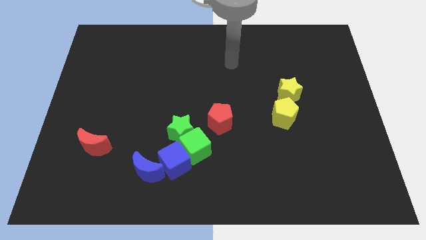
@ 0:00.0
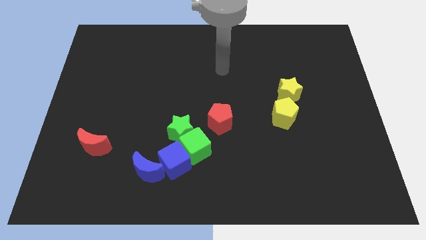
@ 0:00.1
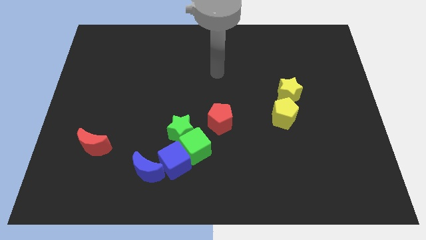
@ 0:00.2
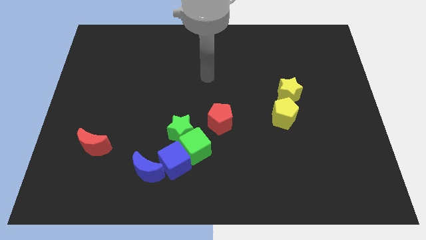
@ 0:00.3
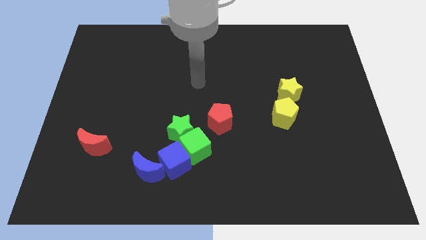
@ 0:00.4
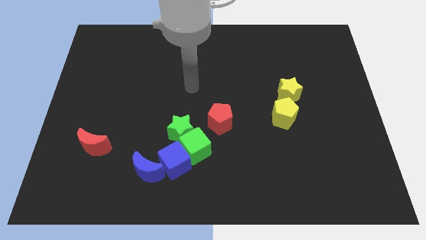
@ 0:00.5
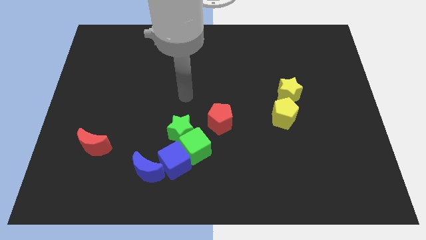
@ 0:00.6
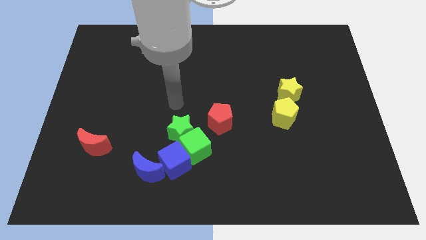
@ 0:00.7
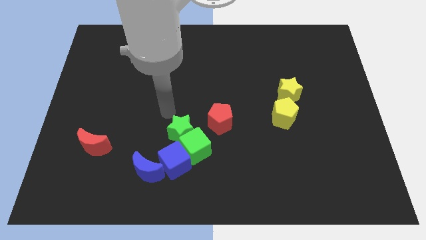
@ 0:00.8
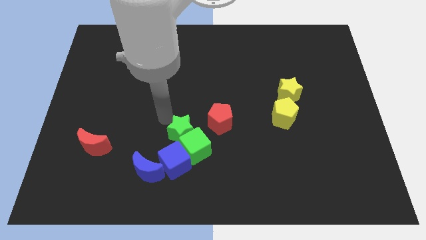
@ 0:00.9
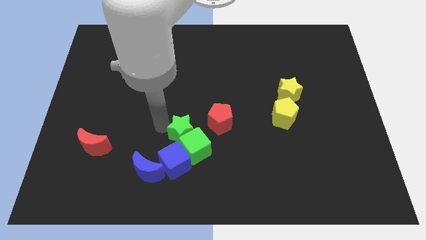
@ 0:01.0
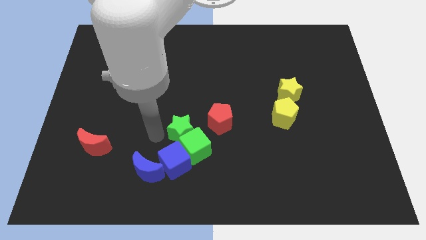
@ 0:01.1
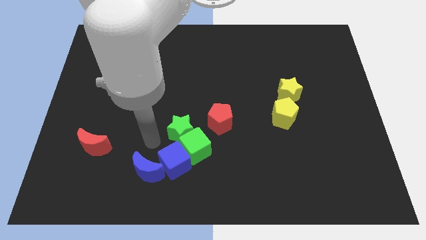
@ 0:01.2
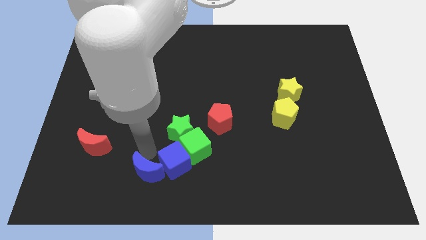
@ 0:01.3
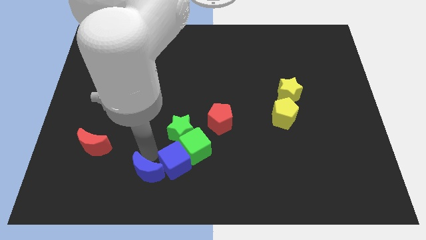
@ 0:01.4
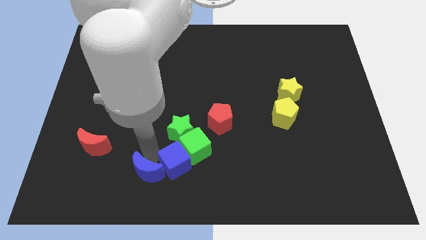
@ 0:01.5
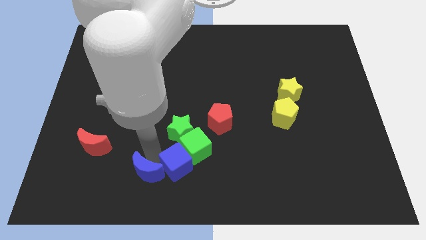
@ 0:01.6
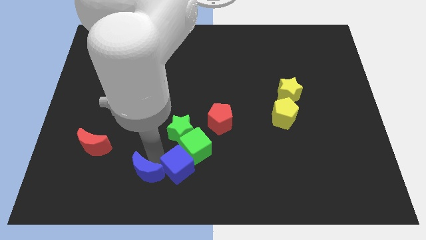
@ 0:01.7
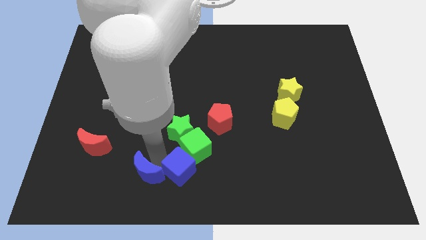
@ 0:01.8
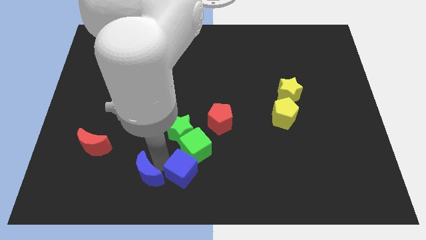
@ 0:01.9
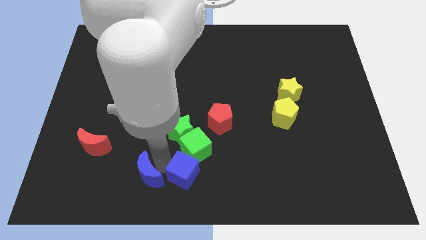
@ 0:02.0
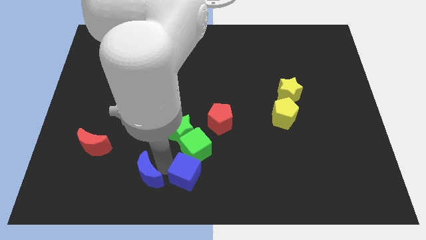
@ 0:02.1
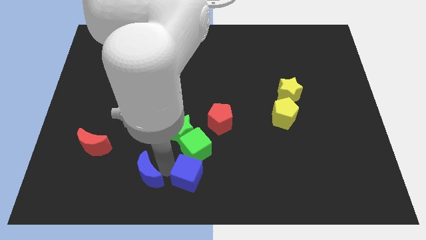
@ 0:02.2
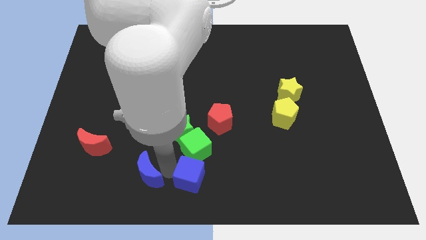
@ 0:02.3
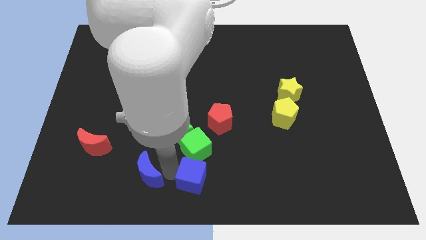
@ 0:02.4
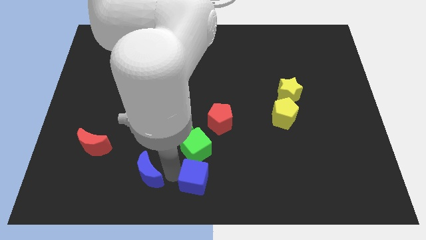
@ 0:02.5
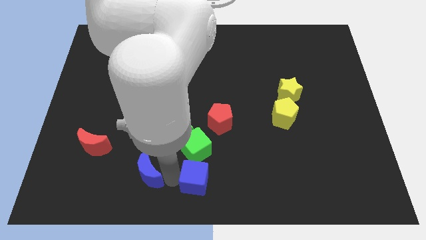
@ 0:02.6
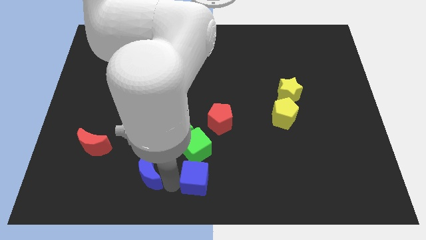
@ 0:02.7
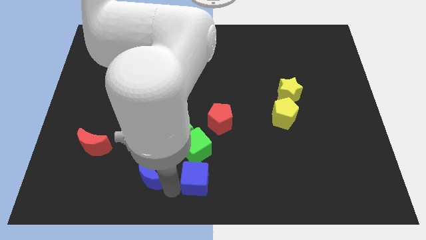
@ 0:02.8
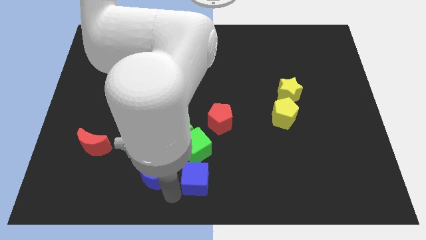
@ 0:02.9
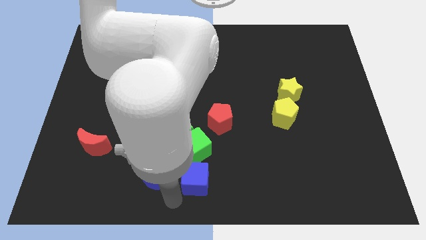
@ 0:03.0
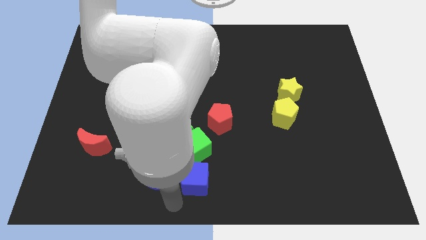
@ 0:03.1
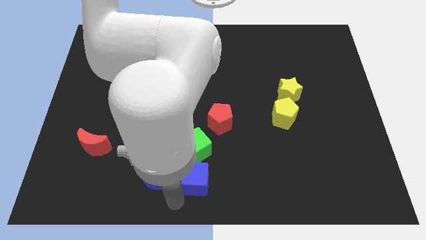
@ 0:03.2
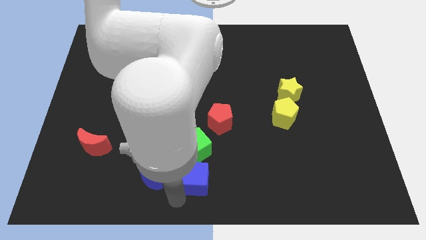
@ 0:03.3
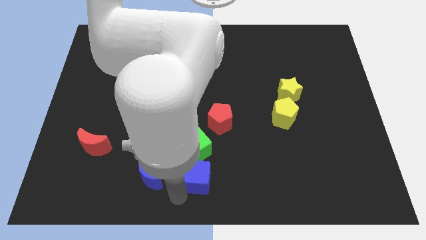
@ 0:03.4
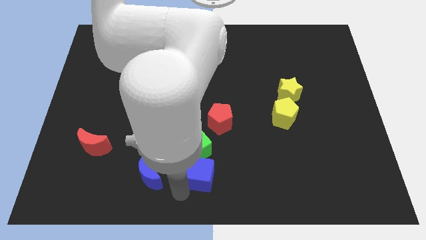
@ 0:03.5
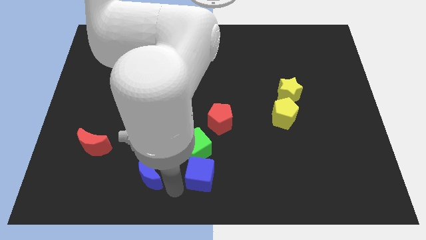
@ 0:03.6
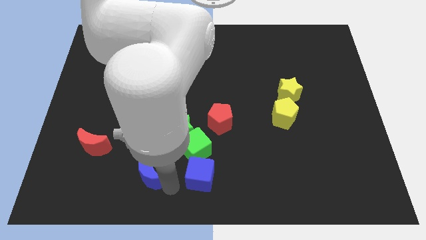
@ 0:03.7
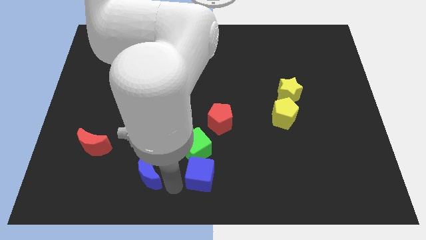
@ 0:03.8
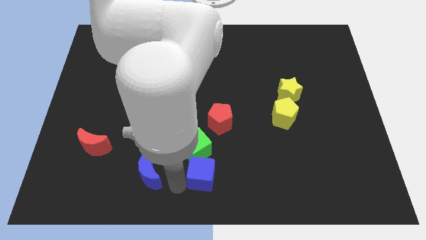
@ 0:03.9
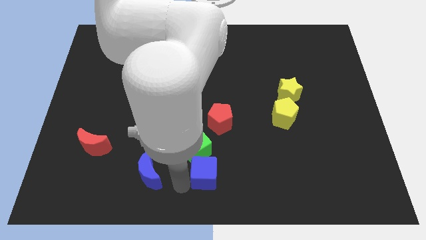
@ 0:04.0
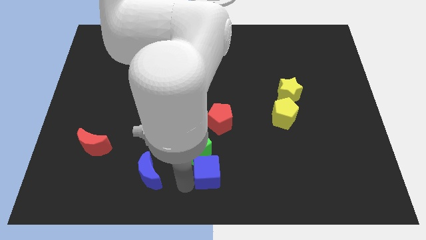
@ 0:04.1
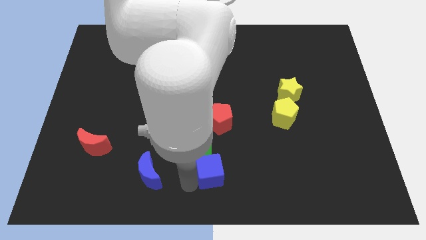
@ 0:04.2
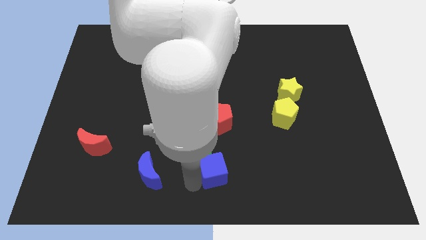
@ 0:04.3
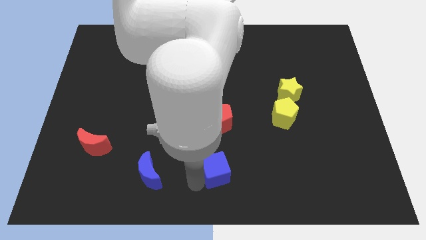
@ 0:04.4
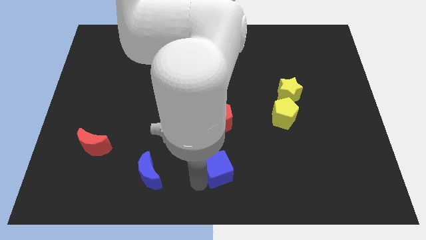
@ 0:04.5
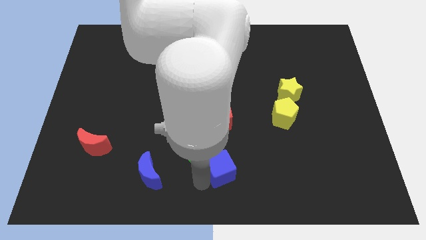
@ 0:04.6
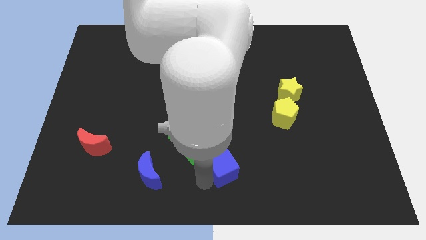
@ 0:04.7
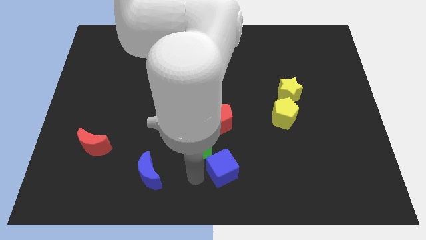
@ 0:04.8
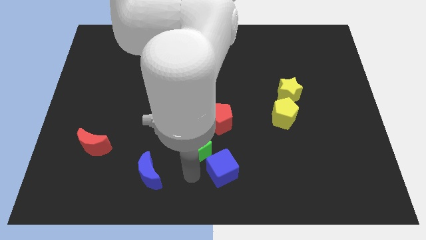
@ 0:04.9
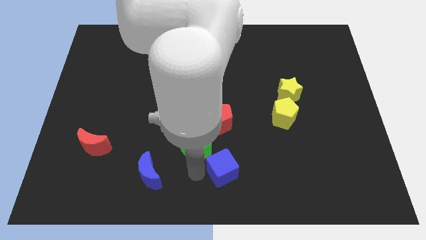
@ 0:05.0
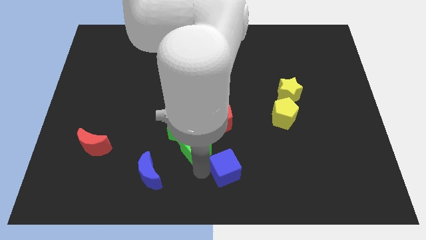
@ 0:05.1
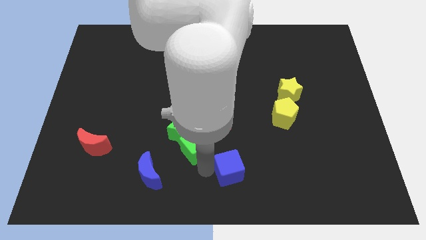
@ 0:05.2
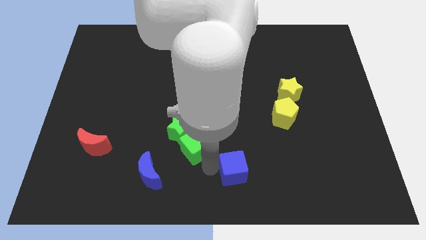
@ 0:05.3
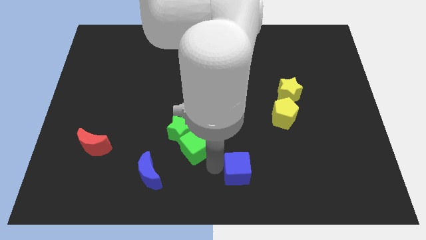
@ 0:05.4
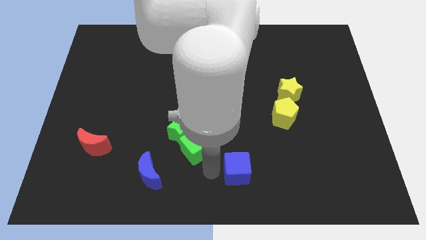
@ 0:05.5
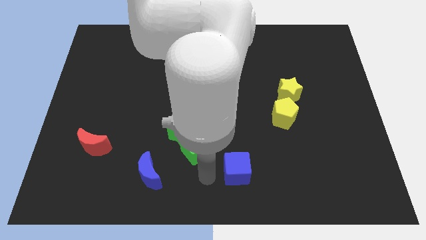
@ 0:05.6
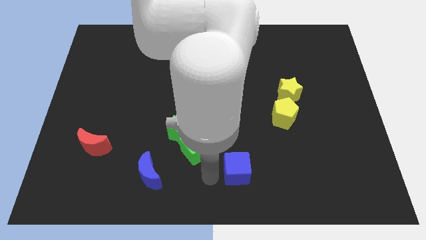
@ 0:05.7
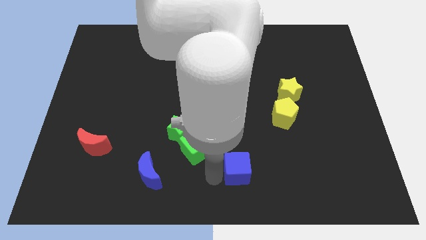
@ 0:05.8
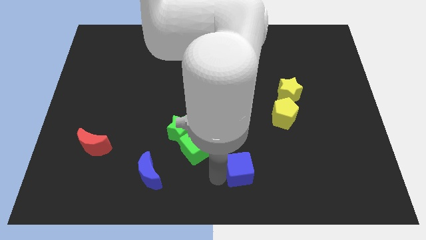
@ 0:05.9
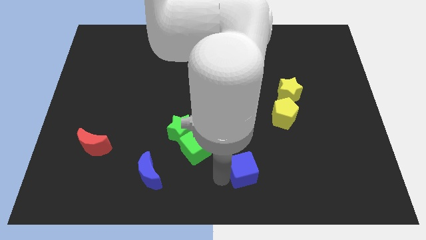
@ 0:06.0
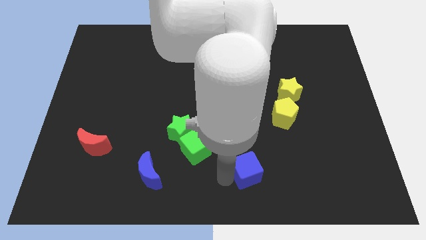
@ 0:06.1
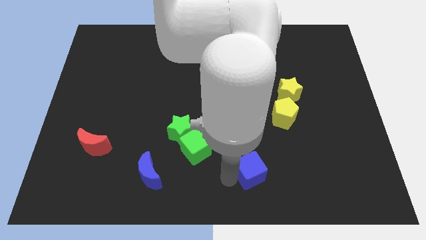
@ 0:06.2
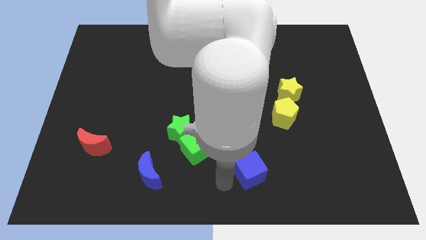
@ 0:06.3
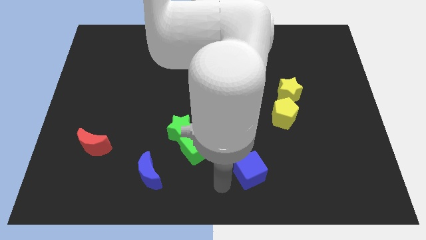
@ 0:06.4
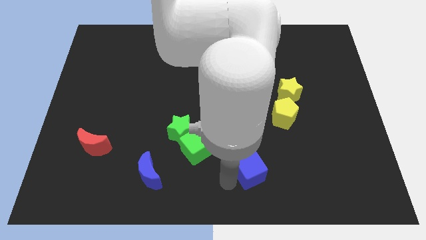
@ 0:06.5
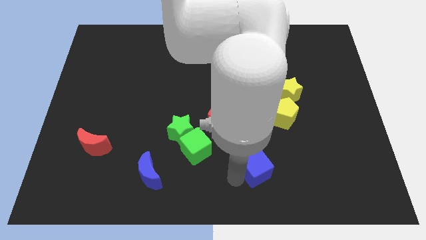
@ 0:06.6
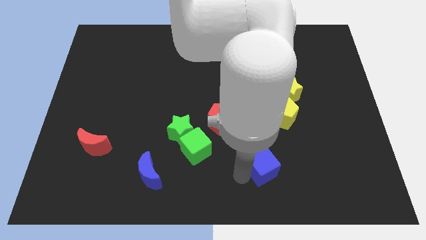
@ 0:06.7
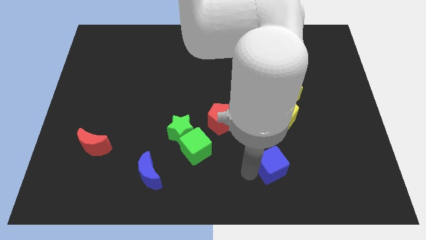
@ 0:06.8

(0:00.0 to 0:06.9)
move the blue cube to the right

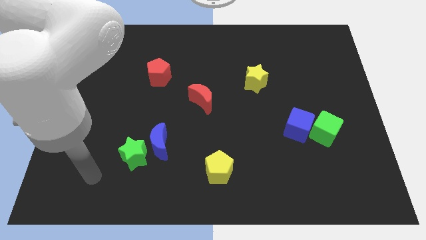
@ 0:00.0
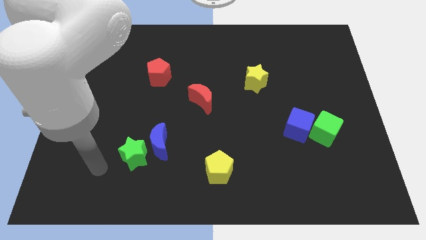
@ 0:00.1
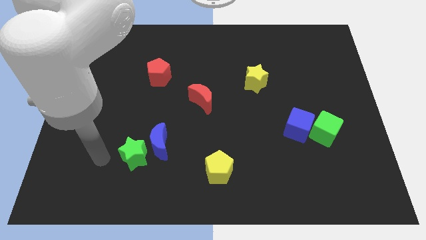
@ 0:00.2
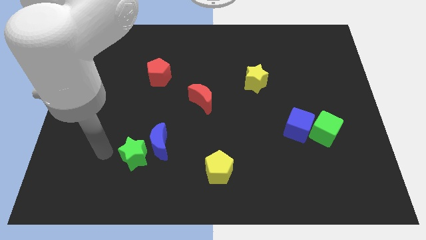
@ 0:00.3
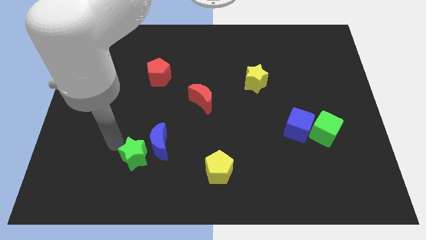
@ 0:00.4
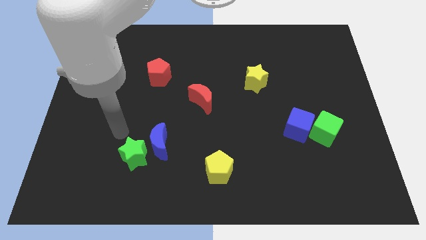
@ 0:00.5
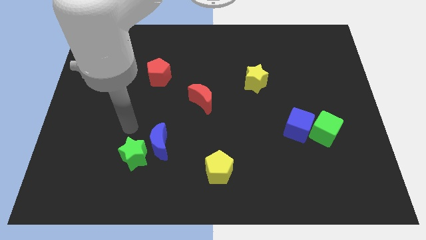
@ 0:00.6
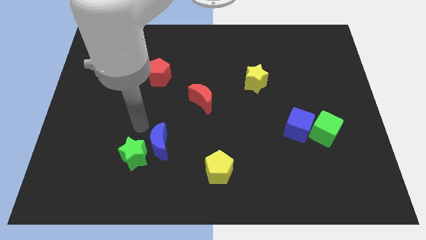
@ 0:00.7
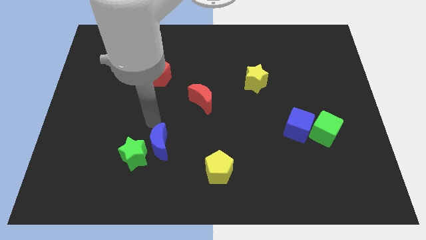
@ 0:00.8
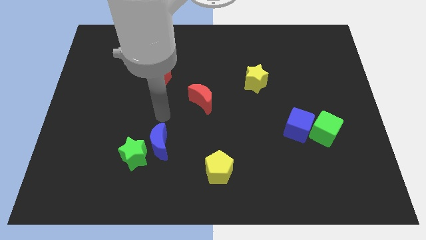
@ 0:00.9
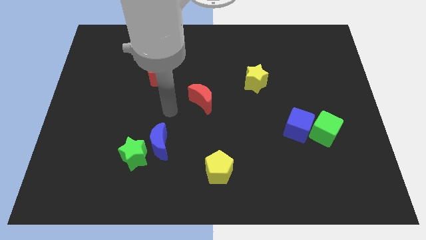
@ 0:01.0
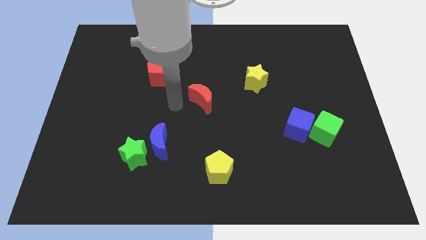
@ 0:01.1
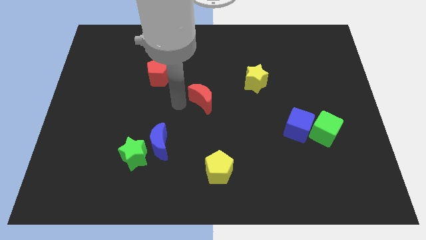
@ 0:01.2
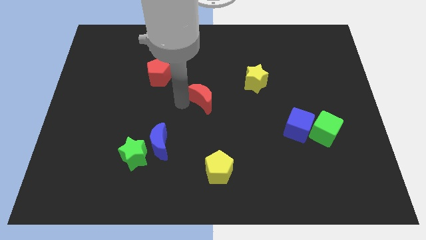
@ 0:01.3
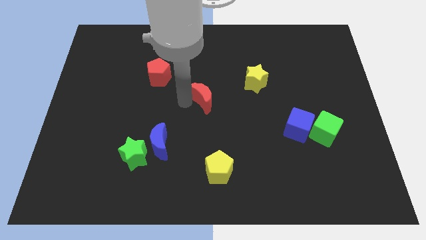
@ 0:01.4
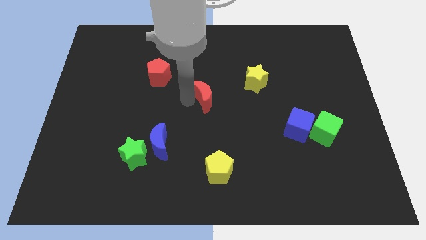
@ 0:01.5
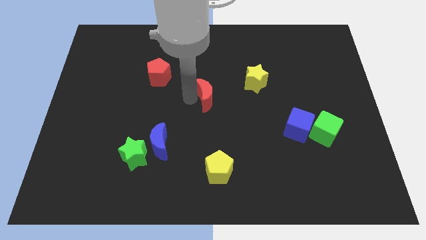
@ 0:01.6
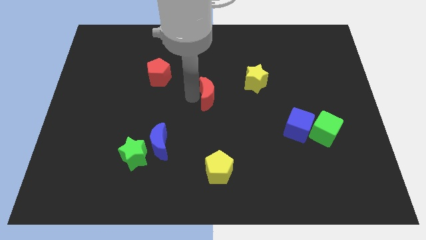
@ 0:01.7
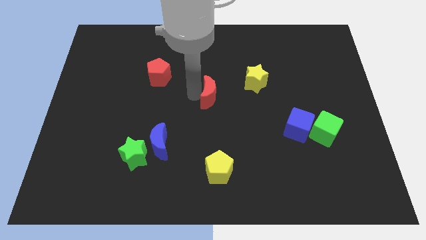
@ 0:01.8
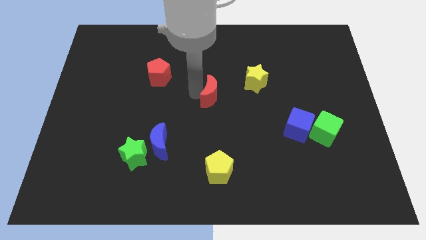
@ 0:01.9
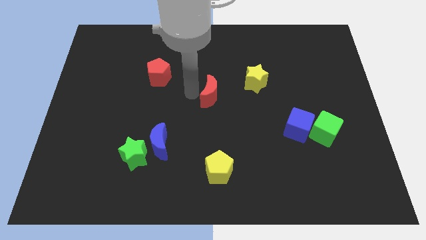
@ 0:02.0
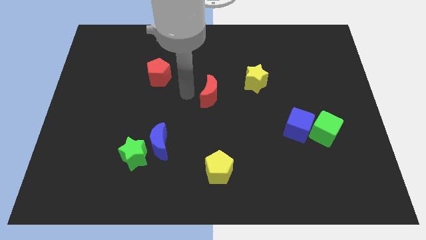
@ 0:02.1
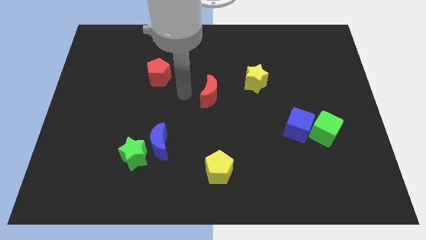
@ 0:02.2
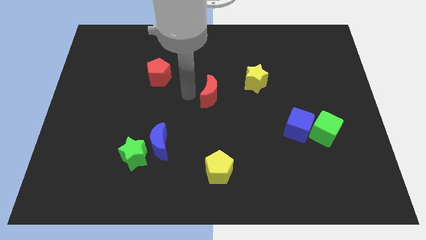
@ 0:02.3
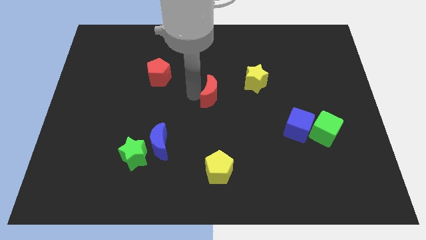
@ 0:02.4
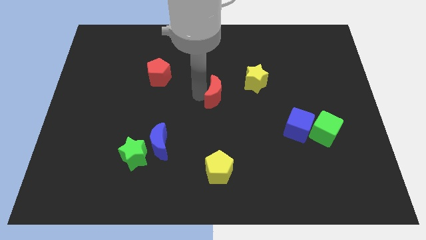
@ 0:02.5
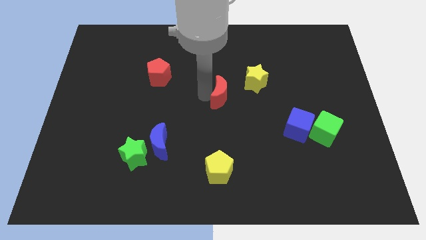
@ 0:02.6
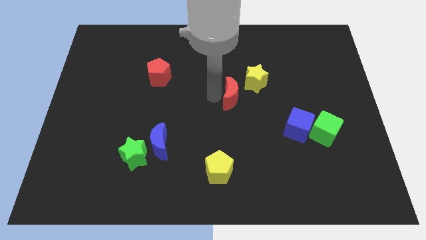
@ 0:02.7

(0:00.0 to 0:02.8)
move the red moon to the right a little bit
